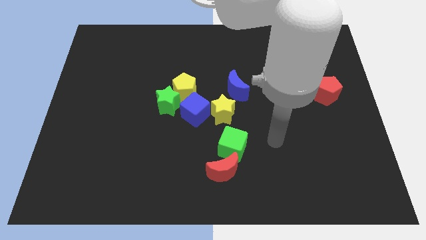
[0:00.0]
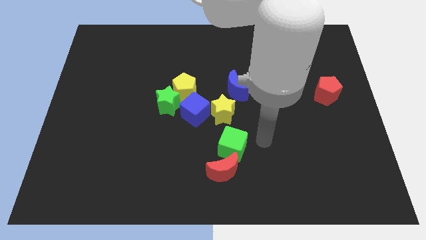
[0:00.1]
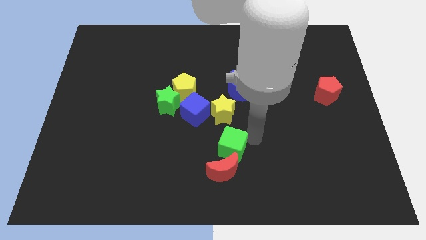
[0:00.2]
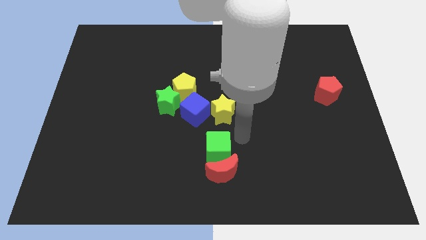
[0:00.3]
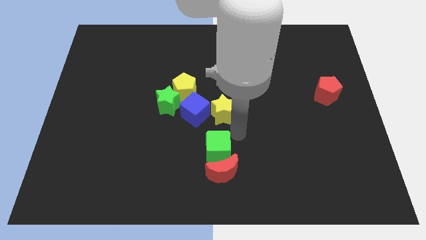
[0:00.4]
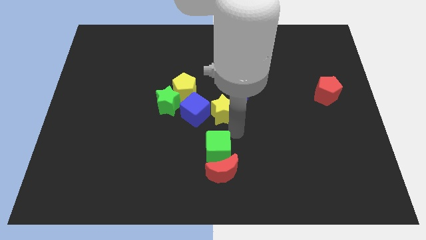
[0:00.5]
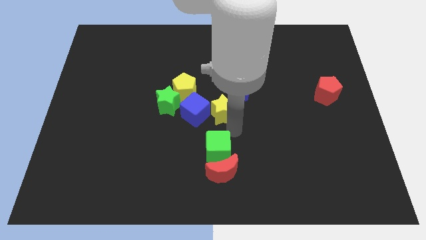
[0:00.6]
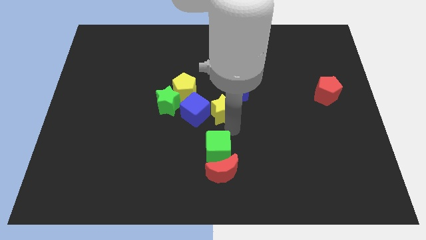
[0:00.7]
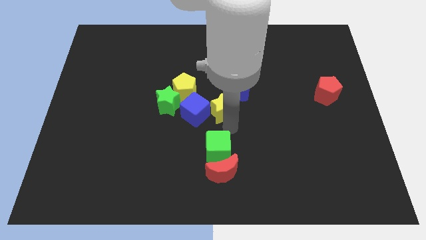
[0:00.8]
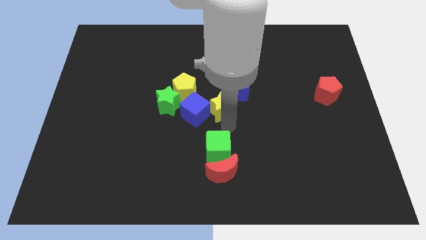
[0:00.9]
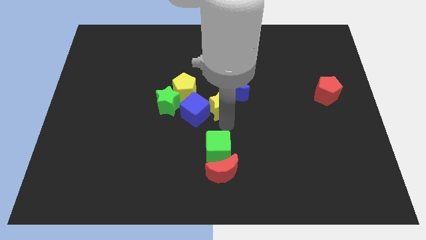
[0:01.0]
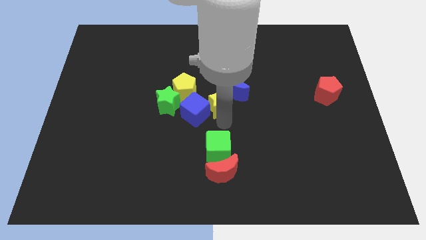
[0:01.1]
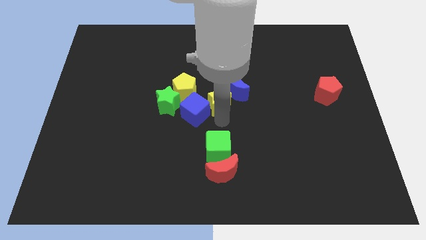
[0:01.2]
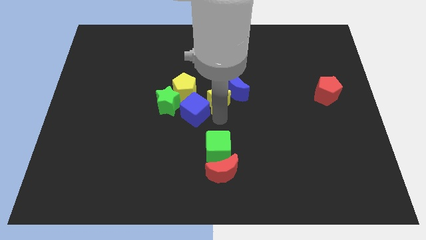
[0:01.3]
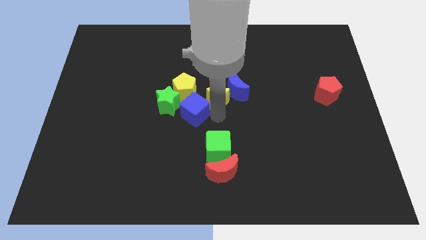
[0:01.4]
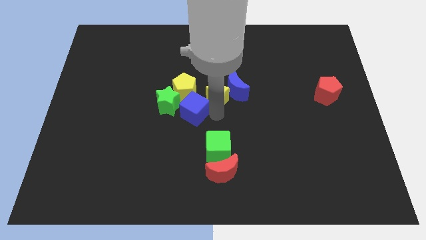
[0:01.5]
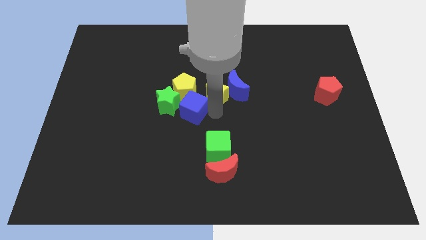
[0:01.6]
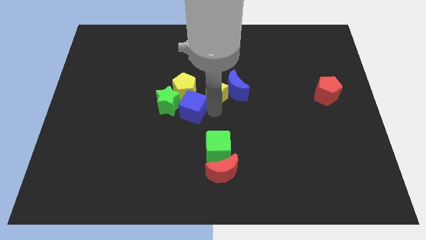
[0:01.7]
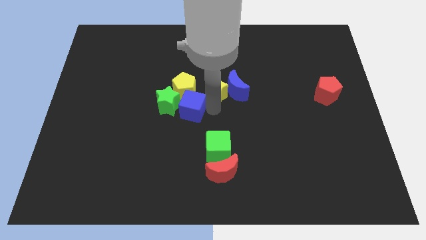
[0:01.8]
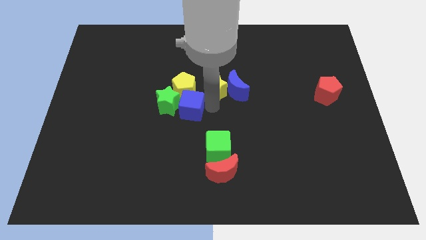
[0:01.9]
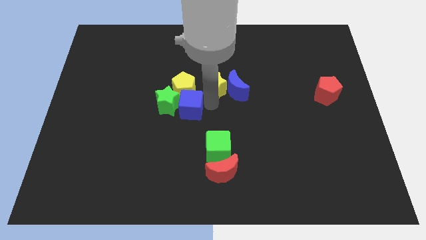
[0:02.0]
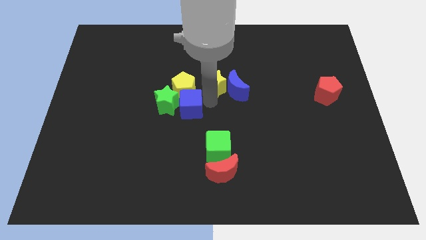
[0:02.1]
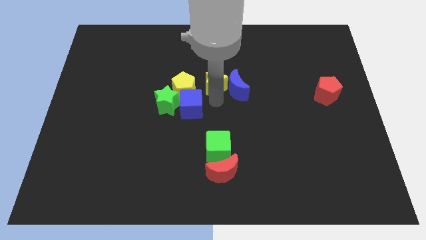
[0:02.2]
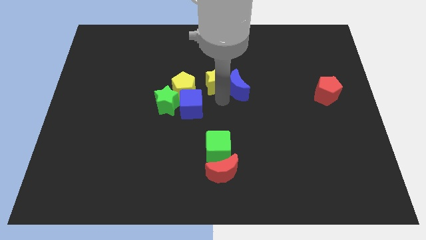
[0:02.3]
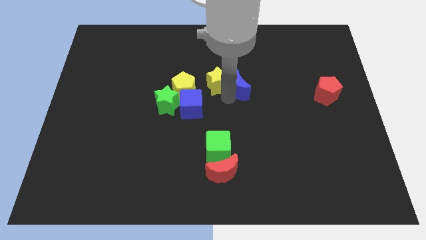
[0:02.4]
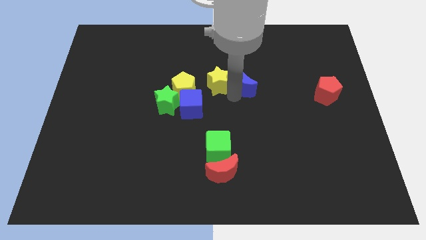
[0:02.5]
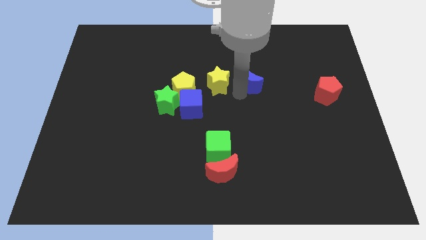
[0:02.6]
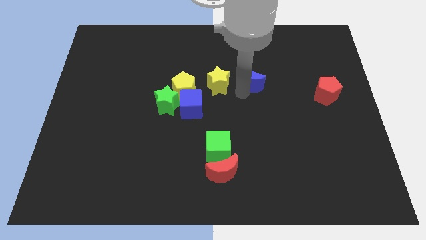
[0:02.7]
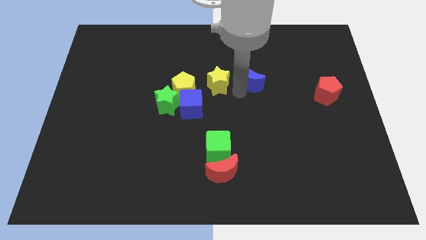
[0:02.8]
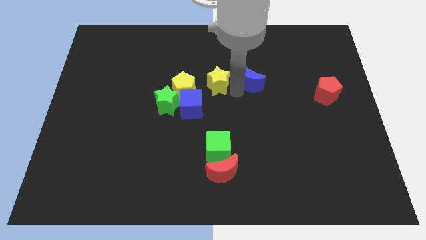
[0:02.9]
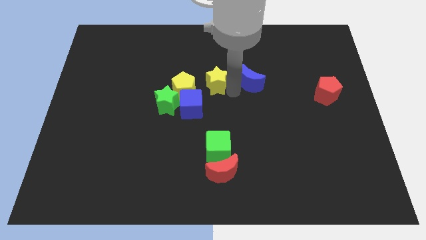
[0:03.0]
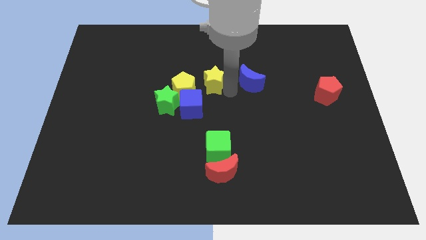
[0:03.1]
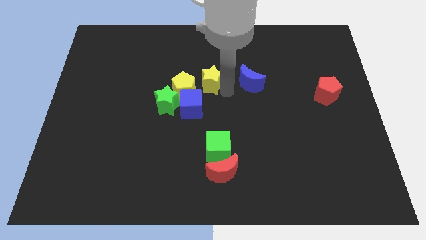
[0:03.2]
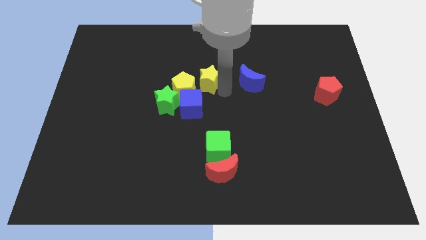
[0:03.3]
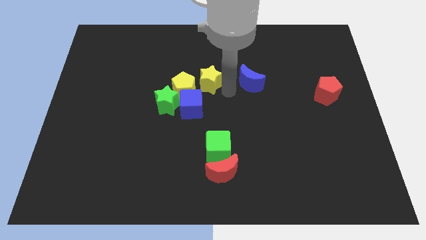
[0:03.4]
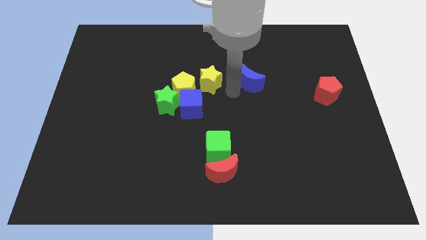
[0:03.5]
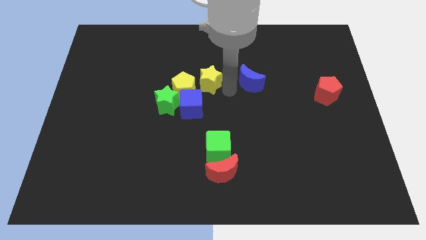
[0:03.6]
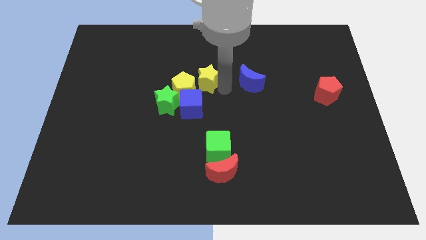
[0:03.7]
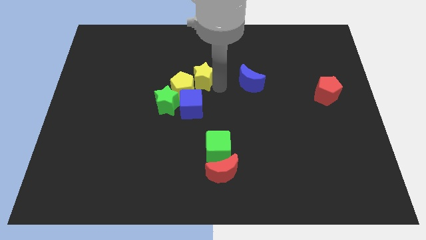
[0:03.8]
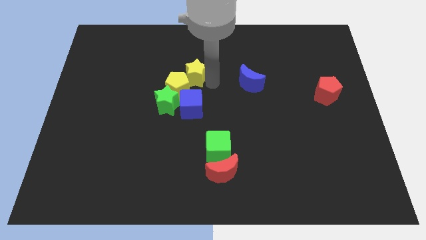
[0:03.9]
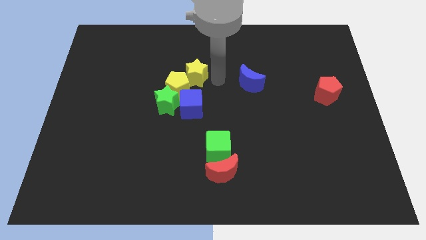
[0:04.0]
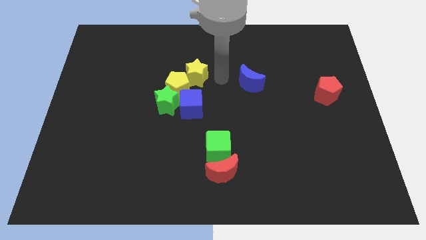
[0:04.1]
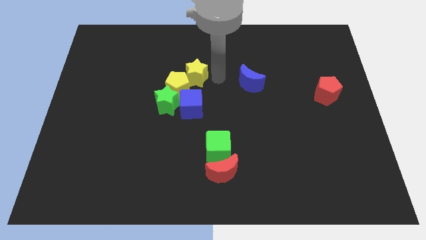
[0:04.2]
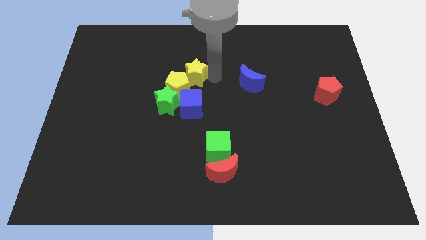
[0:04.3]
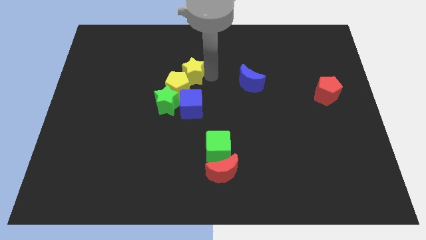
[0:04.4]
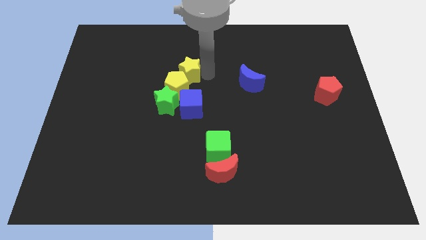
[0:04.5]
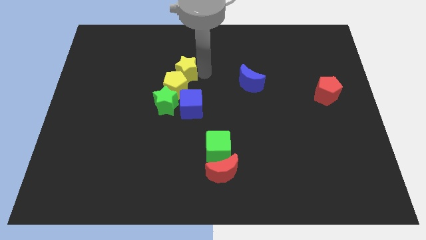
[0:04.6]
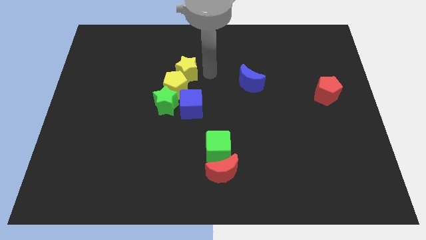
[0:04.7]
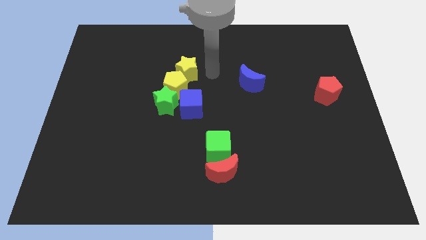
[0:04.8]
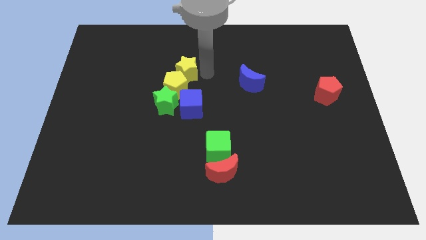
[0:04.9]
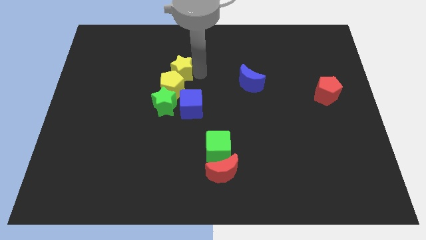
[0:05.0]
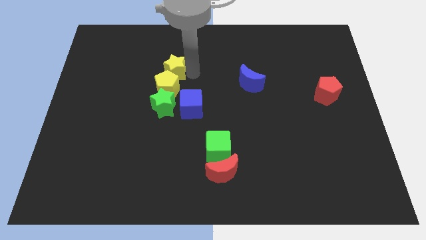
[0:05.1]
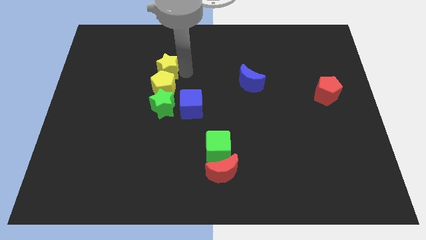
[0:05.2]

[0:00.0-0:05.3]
slide the yellow star to the top left side of the yellow pentagon

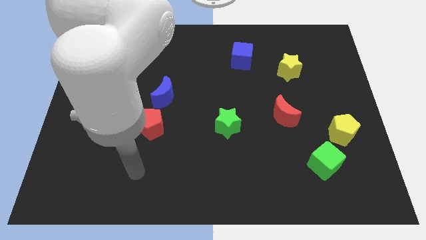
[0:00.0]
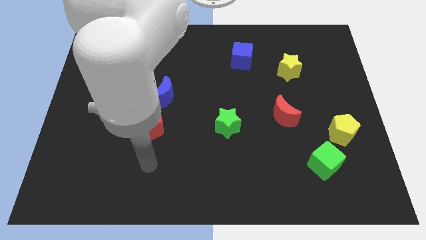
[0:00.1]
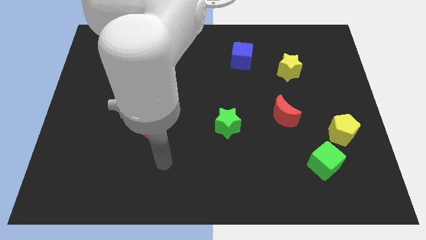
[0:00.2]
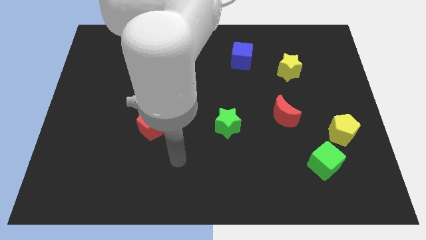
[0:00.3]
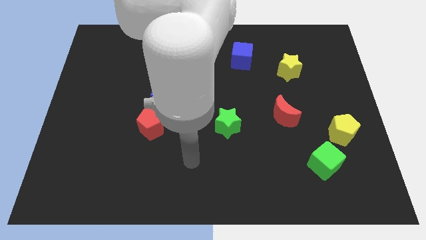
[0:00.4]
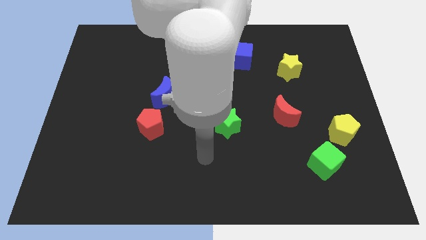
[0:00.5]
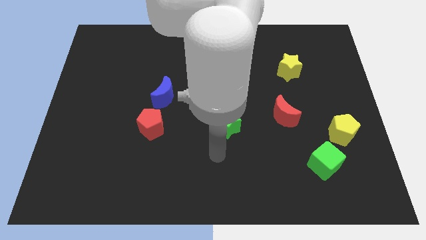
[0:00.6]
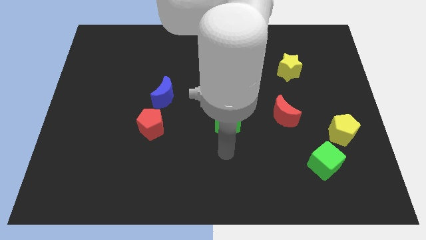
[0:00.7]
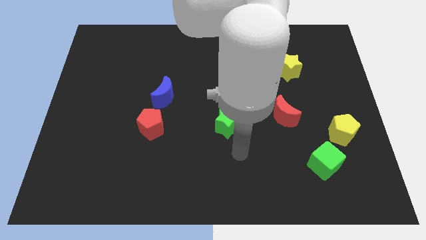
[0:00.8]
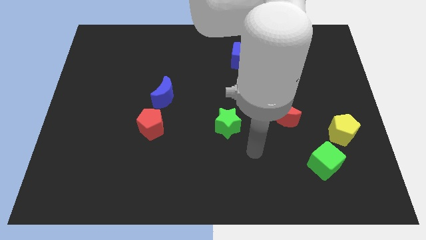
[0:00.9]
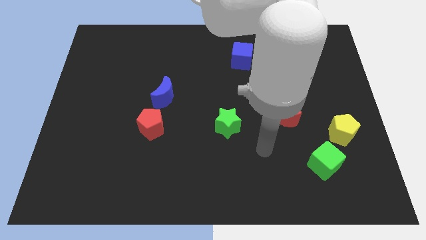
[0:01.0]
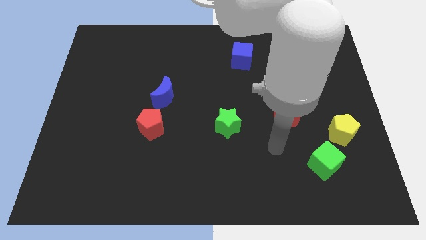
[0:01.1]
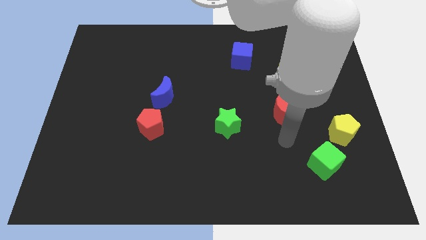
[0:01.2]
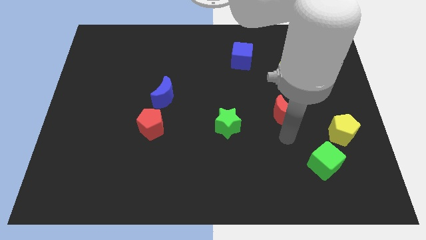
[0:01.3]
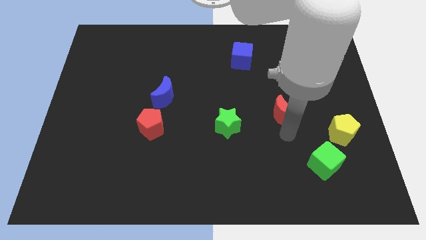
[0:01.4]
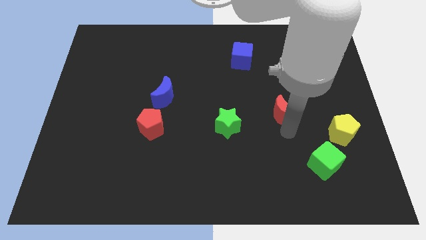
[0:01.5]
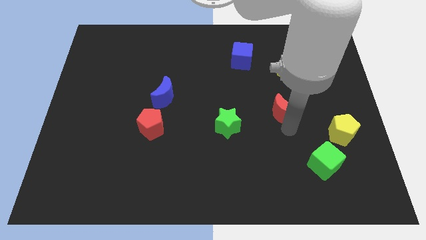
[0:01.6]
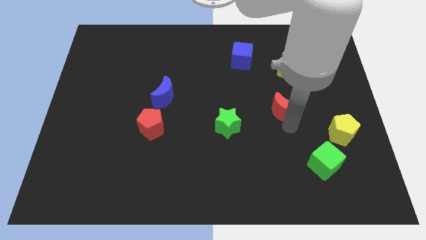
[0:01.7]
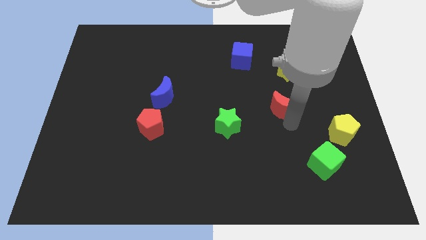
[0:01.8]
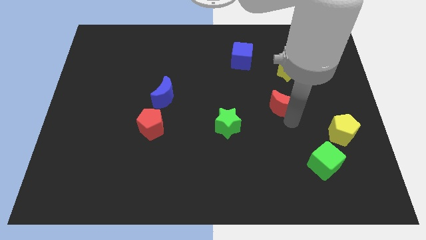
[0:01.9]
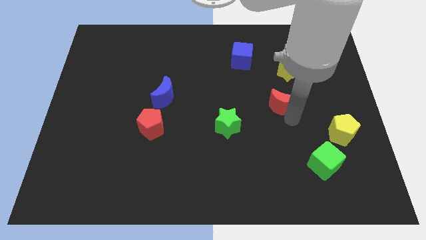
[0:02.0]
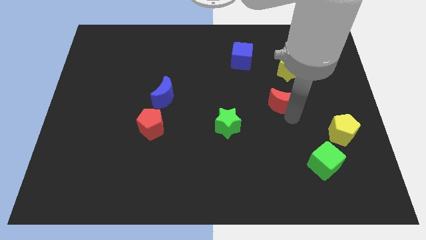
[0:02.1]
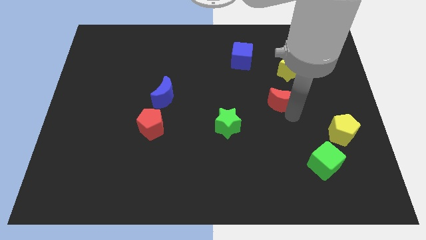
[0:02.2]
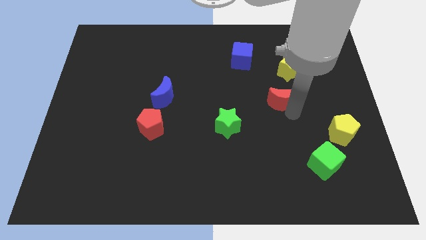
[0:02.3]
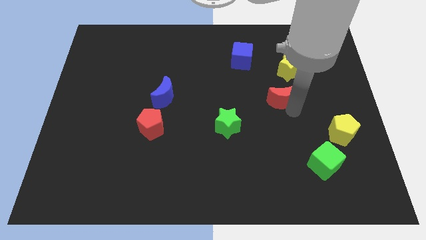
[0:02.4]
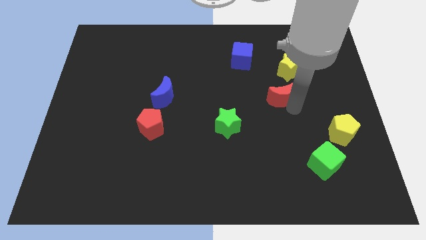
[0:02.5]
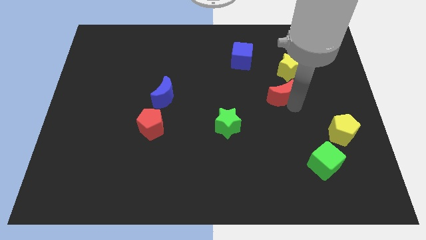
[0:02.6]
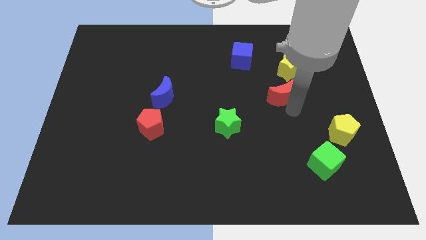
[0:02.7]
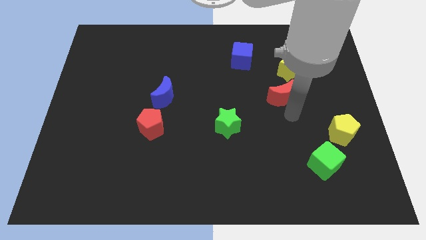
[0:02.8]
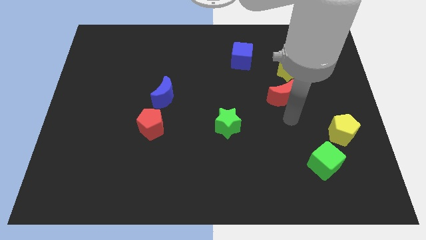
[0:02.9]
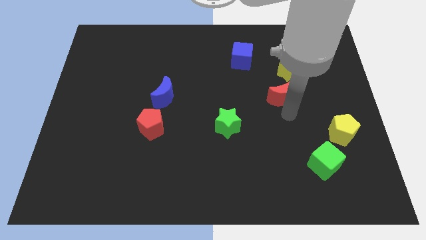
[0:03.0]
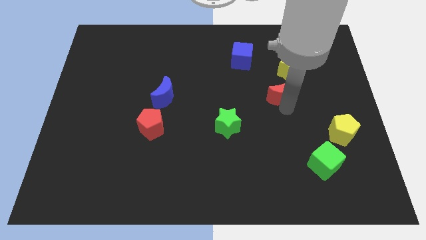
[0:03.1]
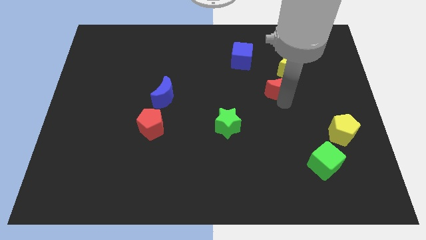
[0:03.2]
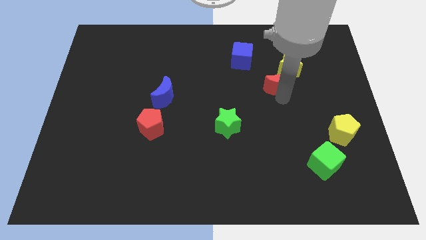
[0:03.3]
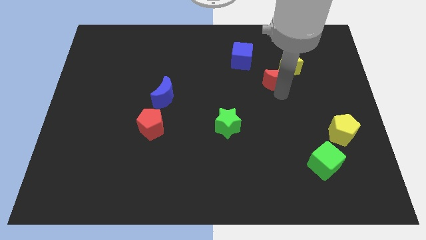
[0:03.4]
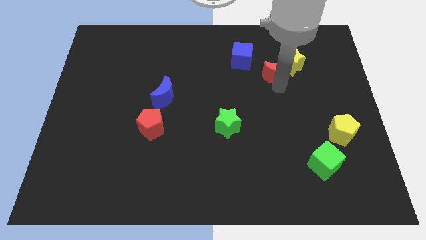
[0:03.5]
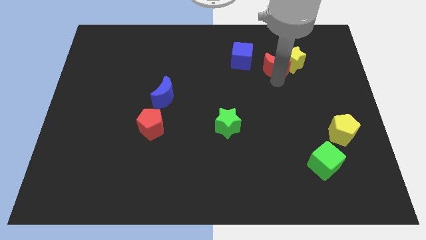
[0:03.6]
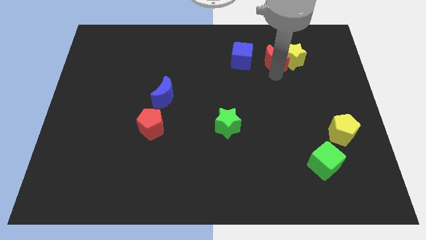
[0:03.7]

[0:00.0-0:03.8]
push the red moon diagonally up and to the left of the yellow star
